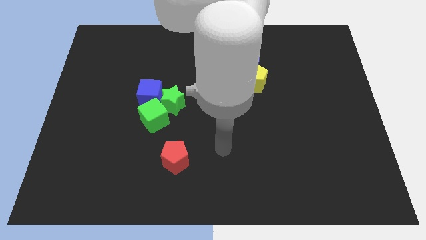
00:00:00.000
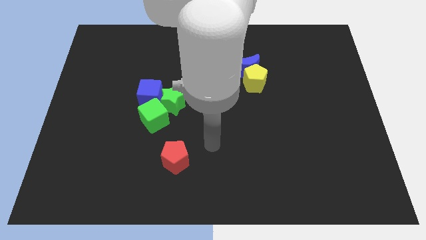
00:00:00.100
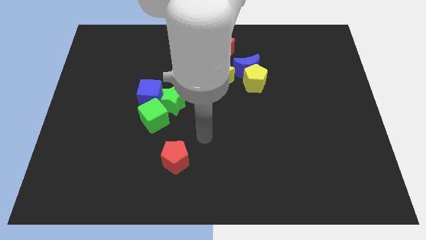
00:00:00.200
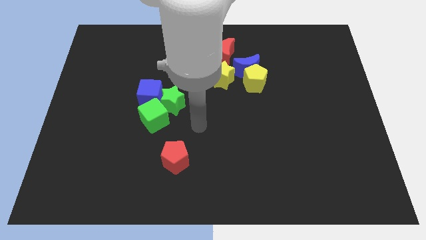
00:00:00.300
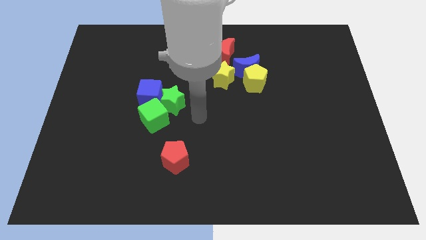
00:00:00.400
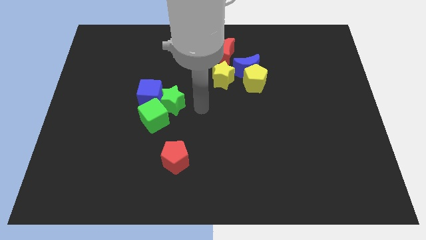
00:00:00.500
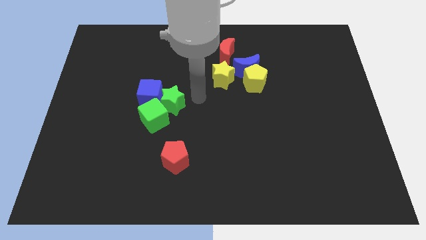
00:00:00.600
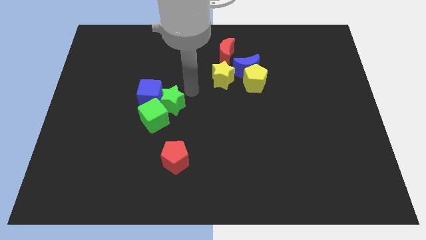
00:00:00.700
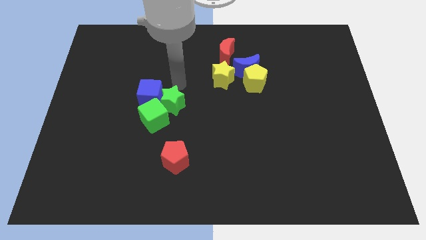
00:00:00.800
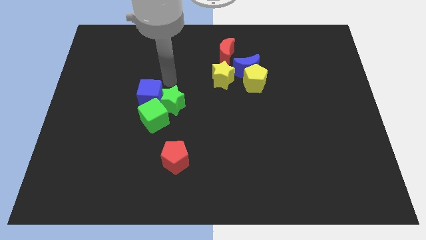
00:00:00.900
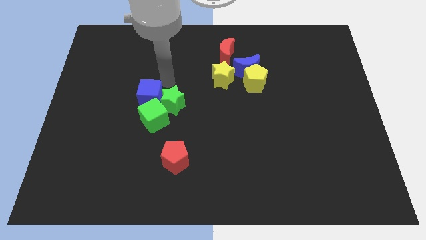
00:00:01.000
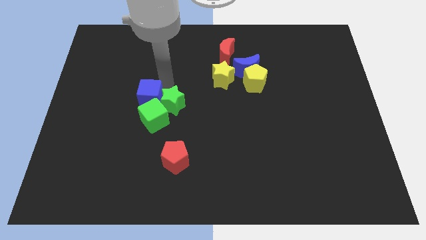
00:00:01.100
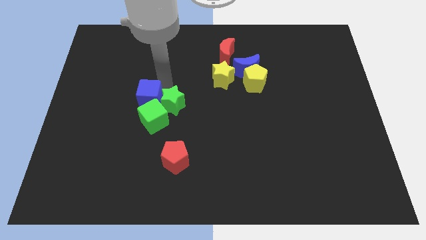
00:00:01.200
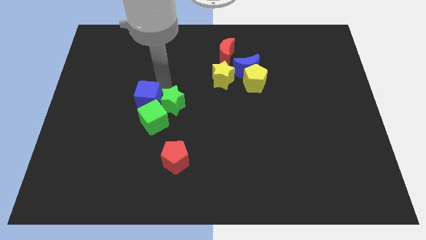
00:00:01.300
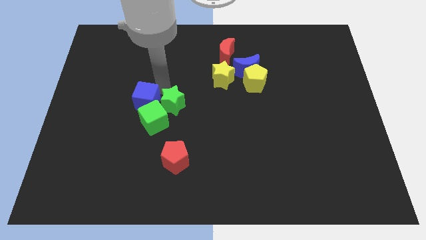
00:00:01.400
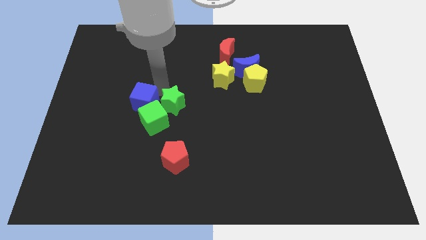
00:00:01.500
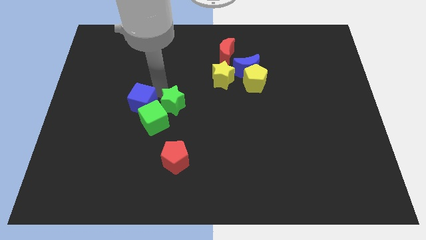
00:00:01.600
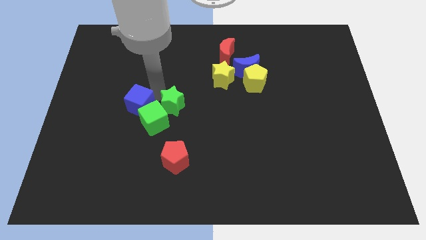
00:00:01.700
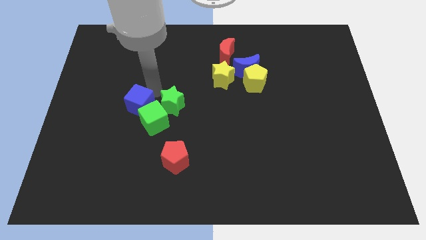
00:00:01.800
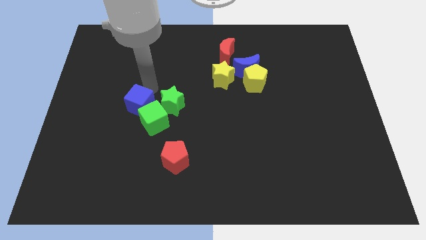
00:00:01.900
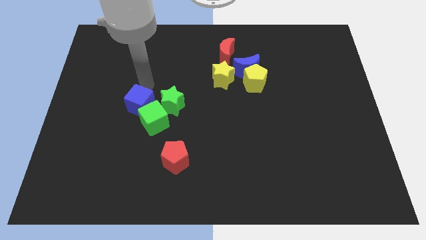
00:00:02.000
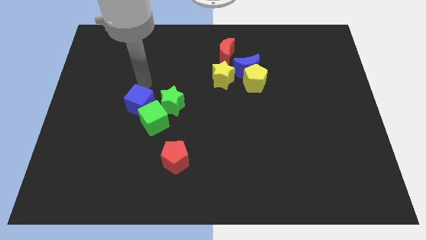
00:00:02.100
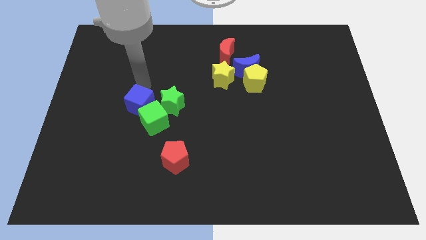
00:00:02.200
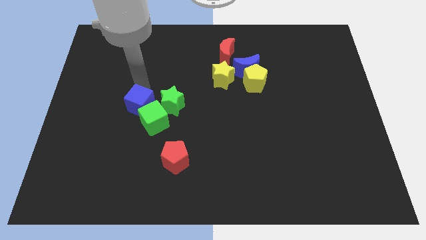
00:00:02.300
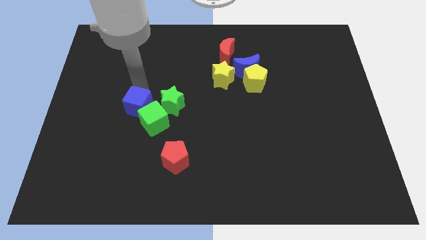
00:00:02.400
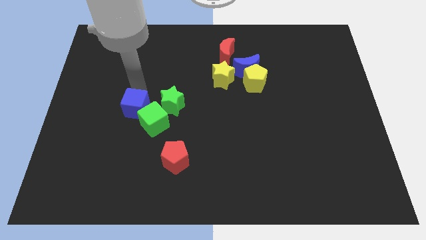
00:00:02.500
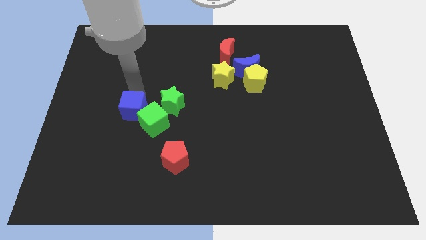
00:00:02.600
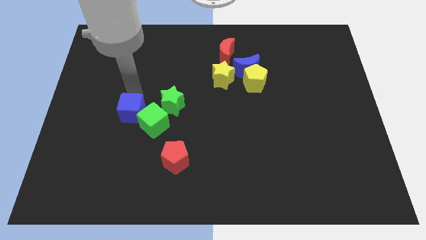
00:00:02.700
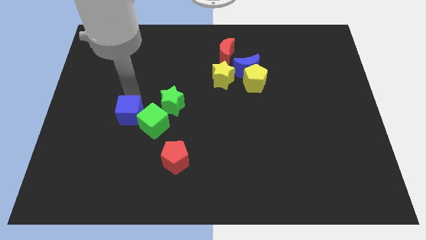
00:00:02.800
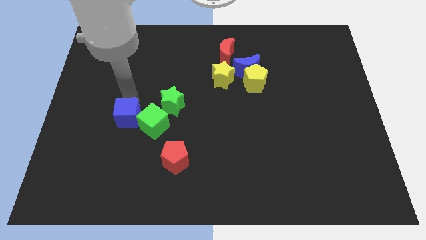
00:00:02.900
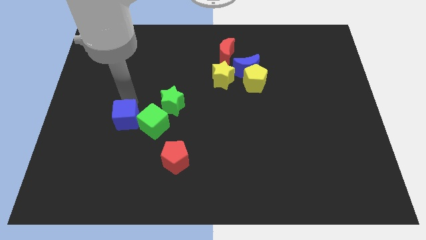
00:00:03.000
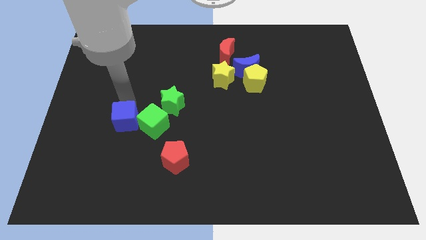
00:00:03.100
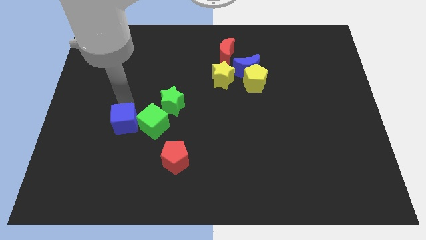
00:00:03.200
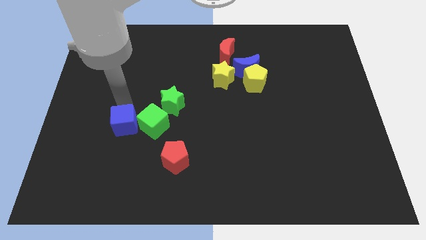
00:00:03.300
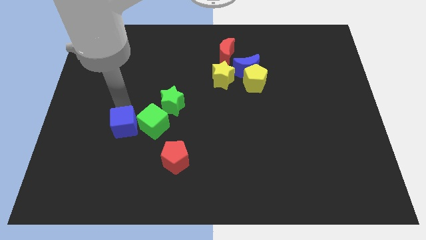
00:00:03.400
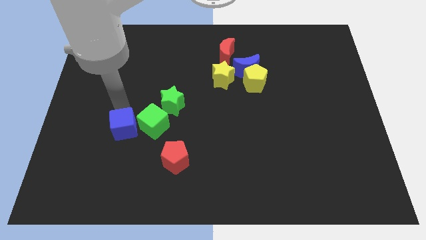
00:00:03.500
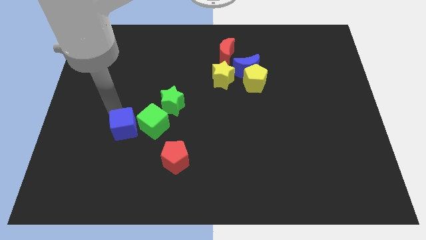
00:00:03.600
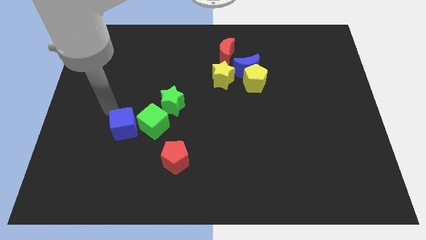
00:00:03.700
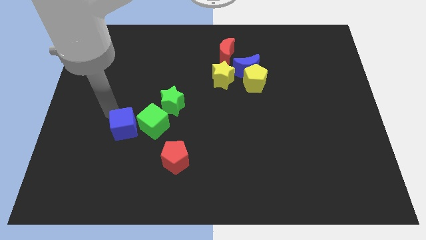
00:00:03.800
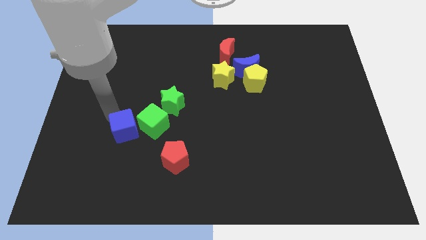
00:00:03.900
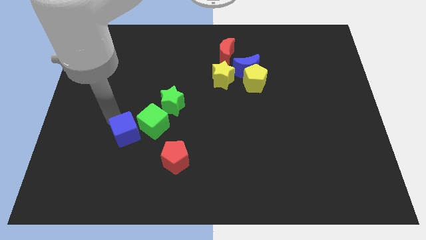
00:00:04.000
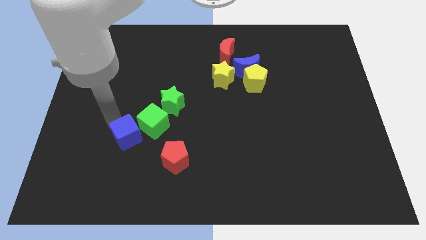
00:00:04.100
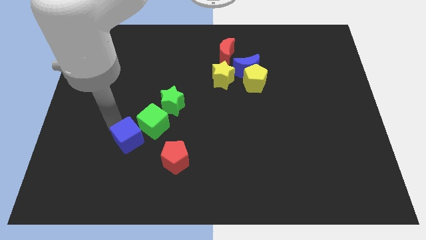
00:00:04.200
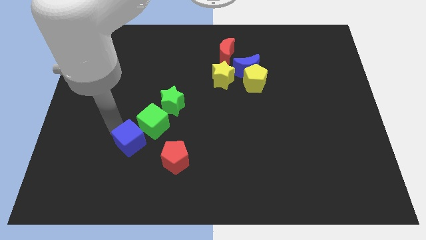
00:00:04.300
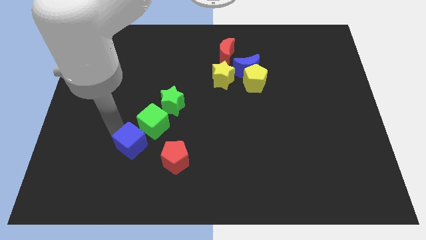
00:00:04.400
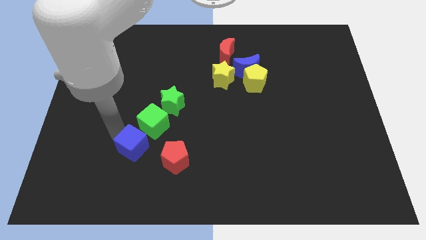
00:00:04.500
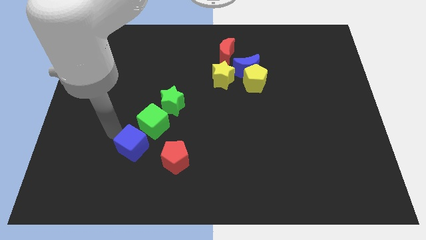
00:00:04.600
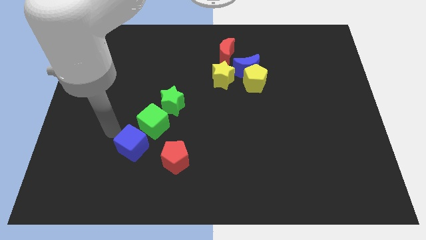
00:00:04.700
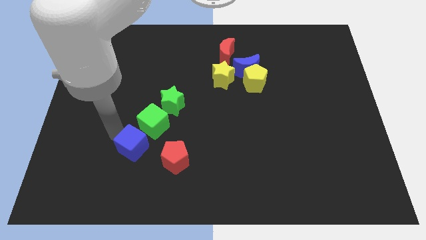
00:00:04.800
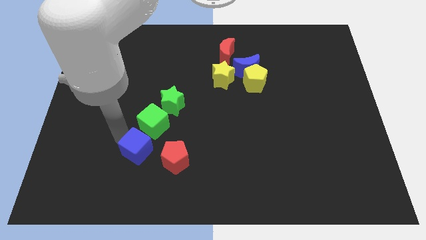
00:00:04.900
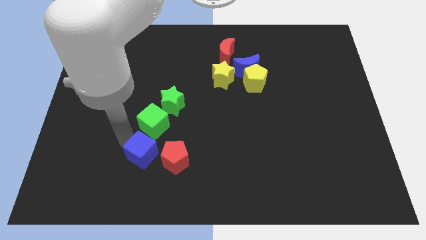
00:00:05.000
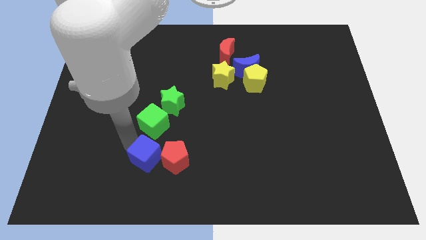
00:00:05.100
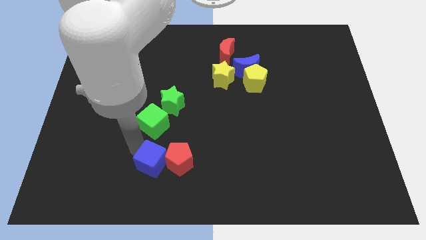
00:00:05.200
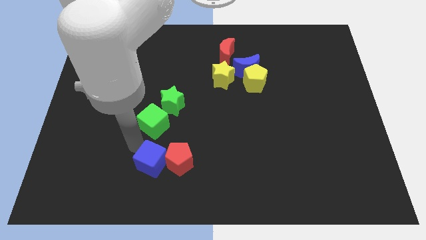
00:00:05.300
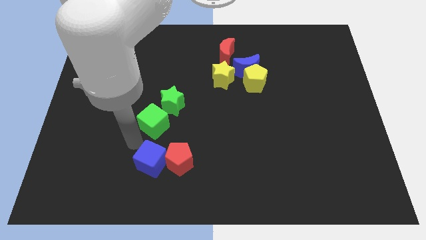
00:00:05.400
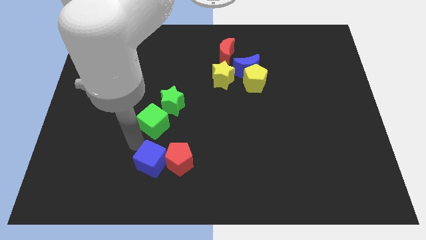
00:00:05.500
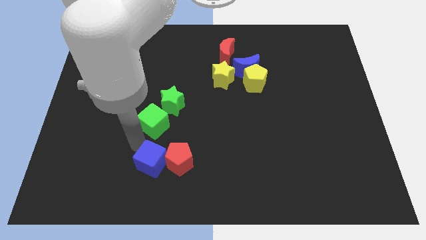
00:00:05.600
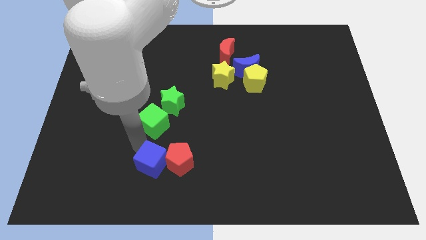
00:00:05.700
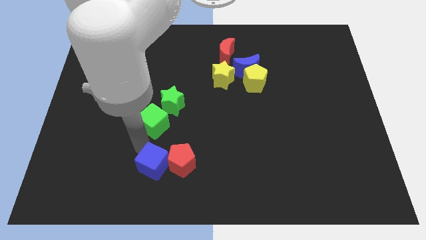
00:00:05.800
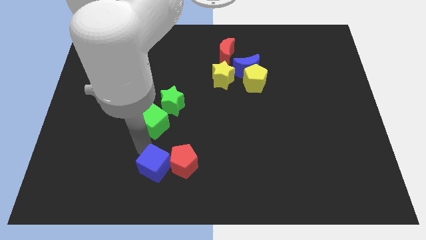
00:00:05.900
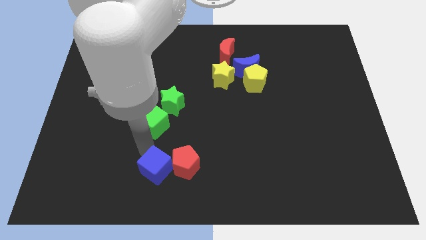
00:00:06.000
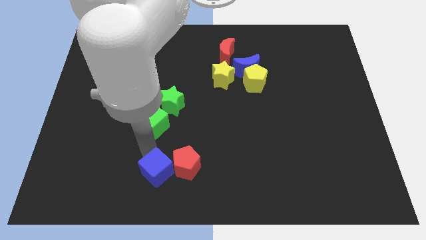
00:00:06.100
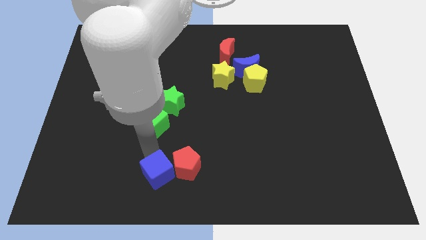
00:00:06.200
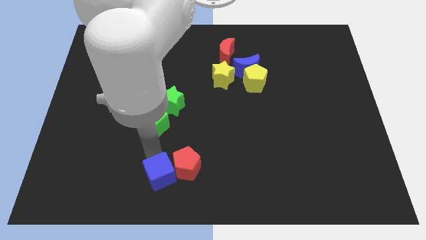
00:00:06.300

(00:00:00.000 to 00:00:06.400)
put the blue cube to the bottom
